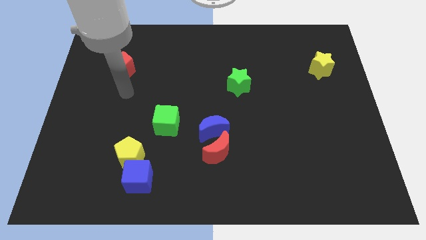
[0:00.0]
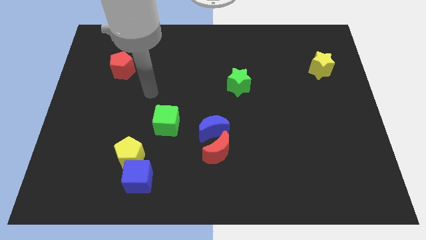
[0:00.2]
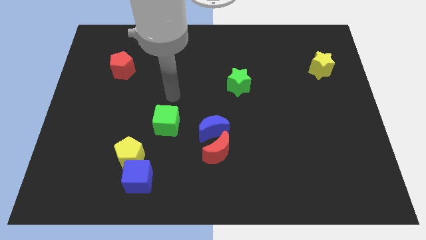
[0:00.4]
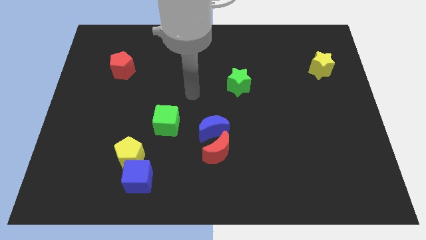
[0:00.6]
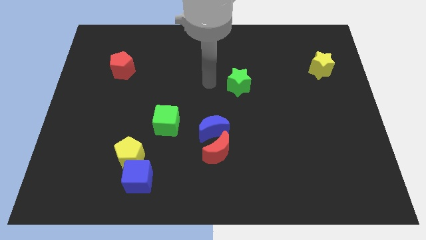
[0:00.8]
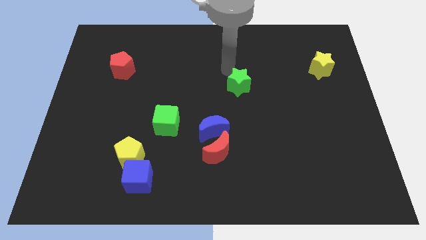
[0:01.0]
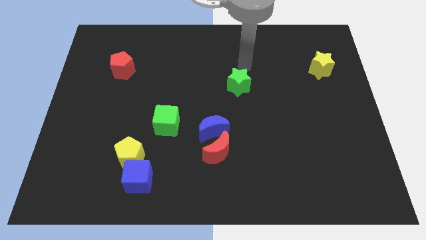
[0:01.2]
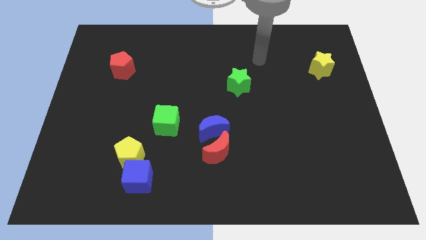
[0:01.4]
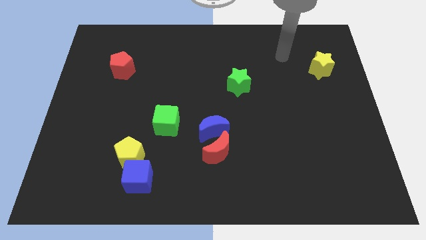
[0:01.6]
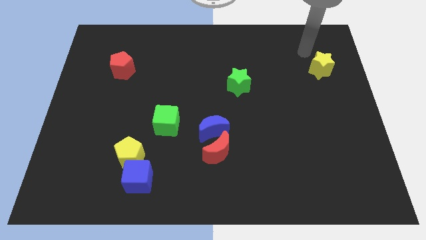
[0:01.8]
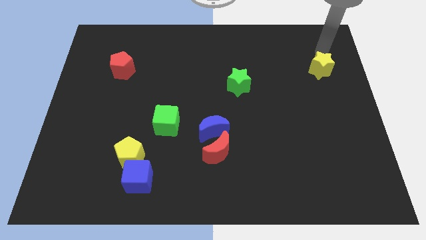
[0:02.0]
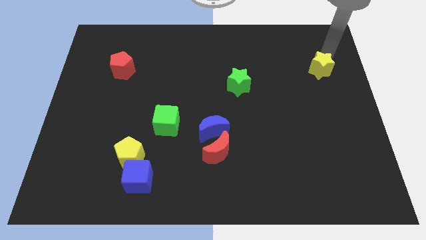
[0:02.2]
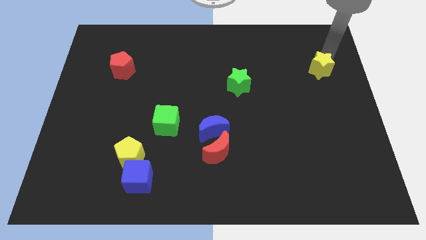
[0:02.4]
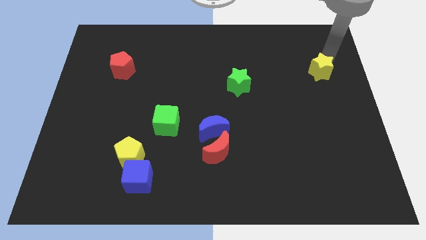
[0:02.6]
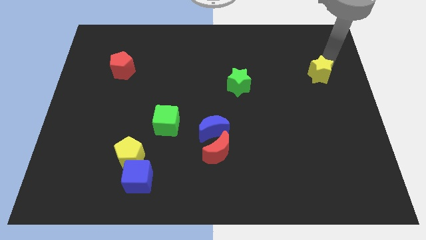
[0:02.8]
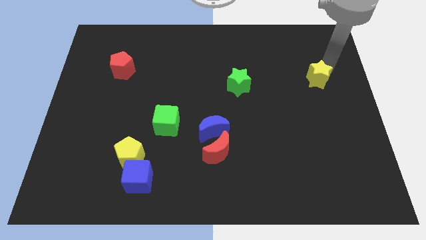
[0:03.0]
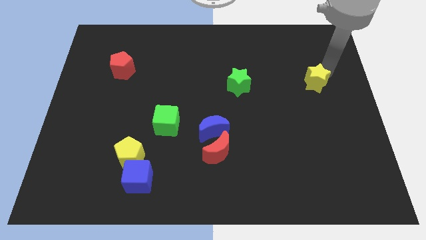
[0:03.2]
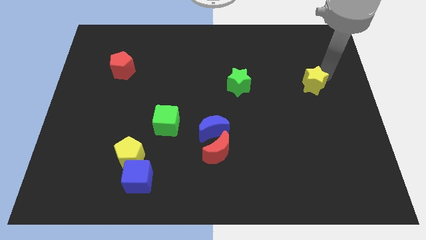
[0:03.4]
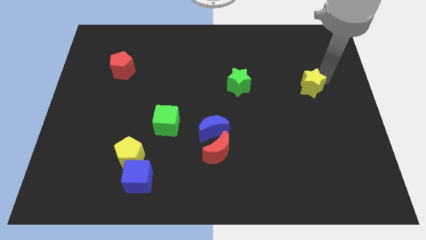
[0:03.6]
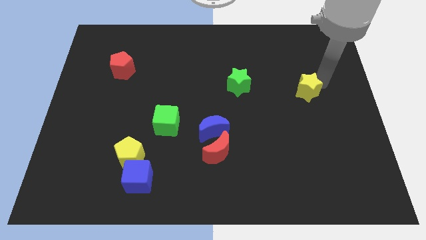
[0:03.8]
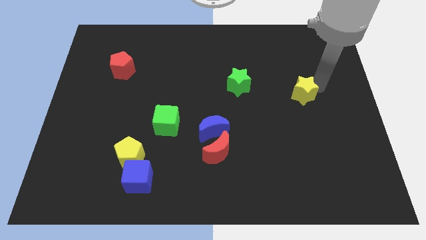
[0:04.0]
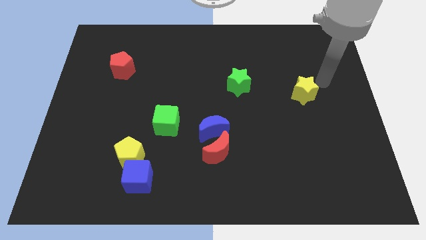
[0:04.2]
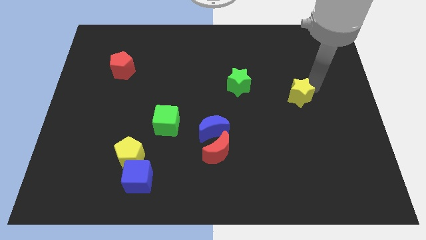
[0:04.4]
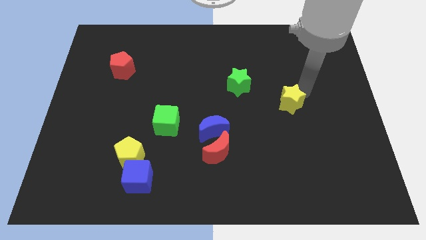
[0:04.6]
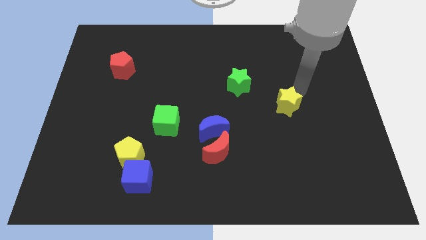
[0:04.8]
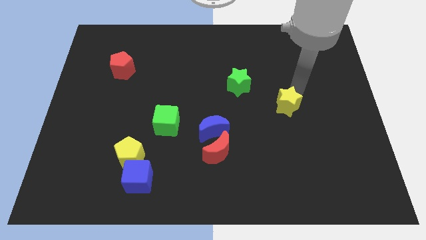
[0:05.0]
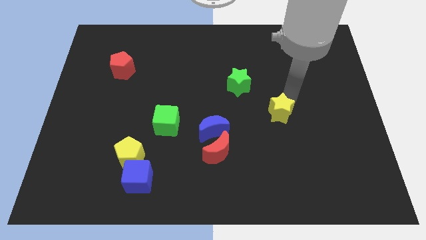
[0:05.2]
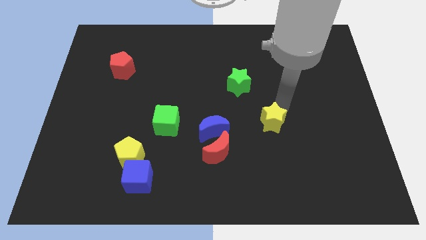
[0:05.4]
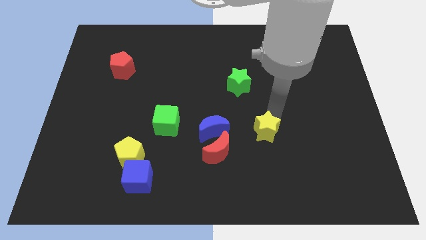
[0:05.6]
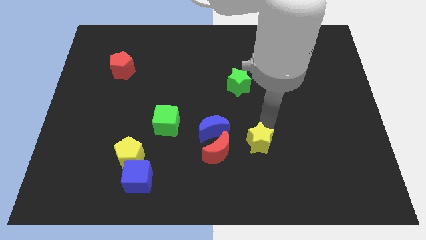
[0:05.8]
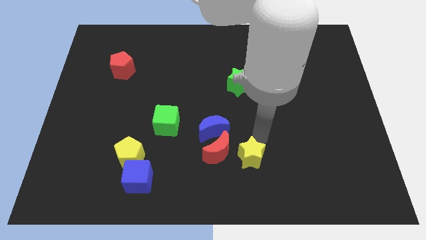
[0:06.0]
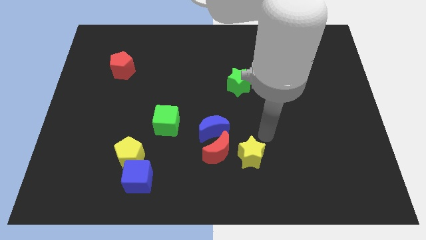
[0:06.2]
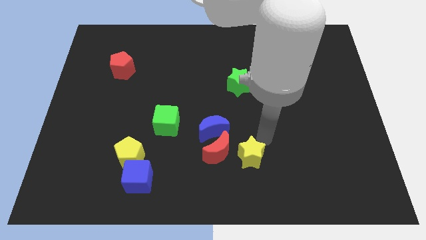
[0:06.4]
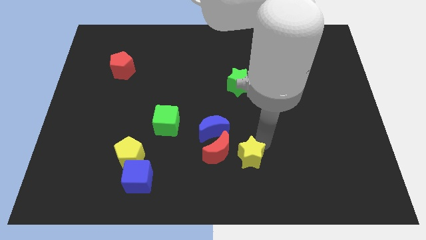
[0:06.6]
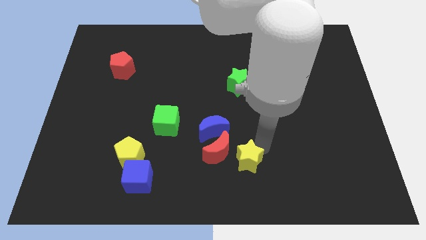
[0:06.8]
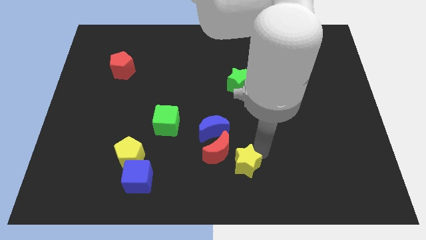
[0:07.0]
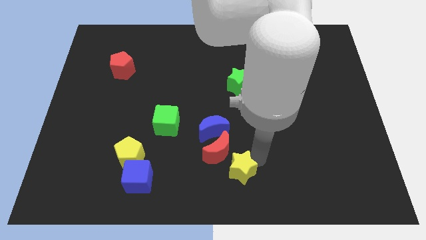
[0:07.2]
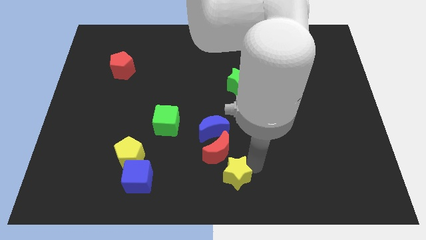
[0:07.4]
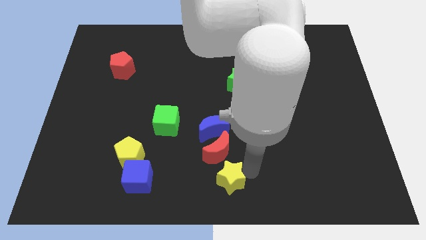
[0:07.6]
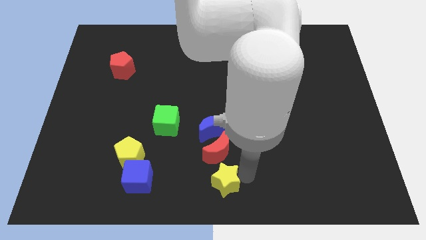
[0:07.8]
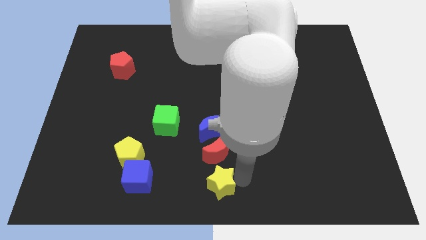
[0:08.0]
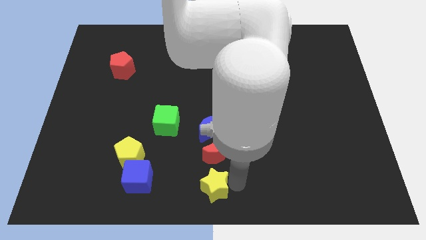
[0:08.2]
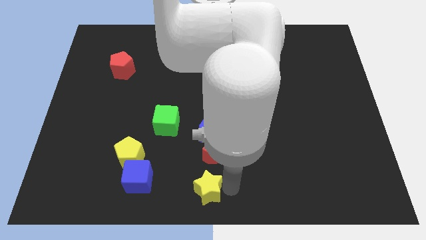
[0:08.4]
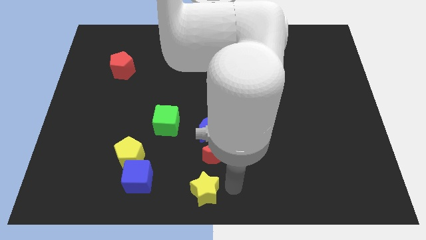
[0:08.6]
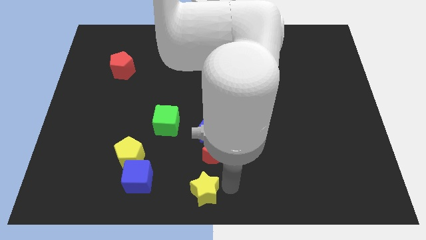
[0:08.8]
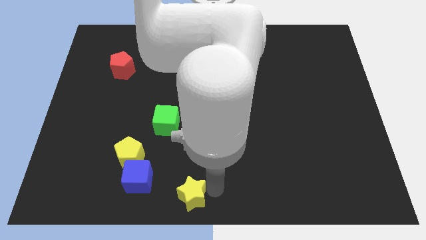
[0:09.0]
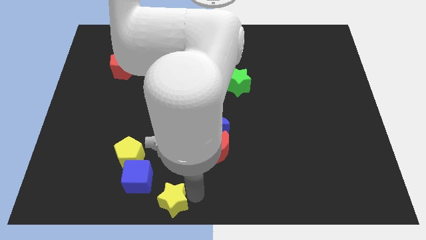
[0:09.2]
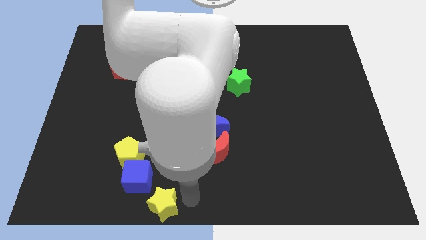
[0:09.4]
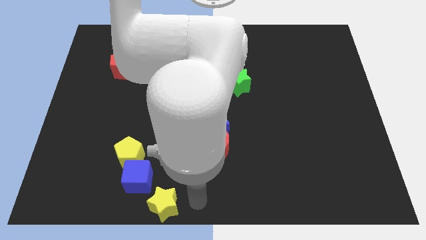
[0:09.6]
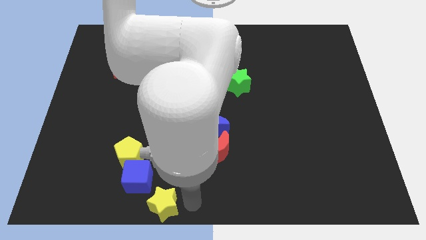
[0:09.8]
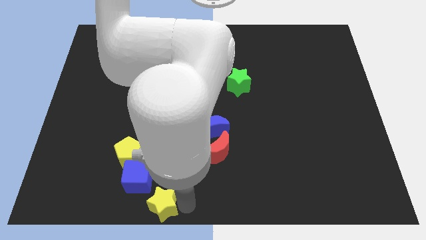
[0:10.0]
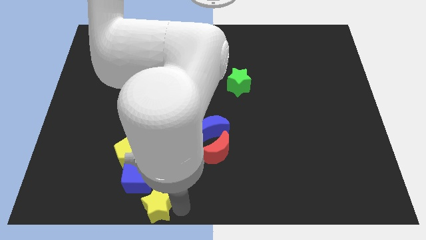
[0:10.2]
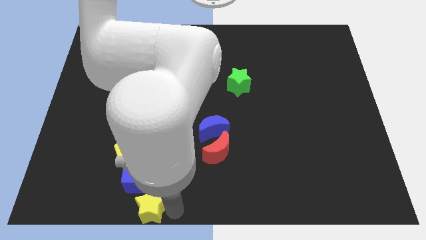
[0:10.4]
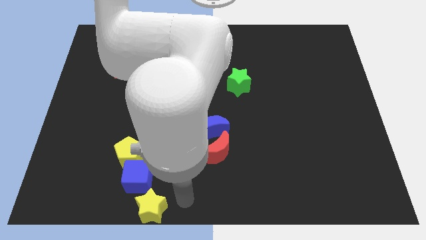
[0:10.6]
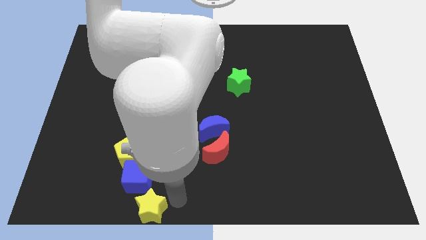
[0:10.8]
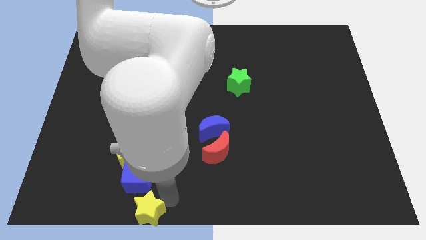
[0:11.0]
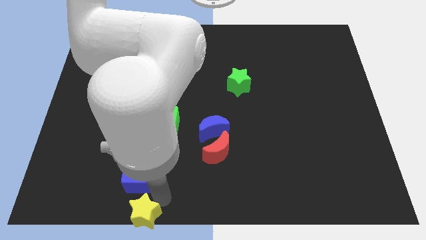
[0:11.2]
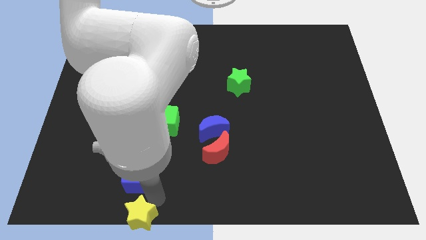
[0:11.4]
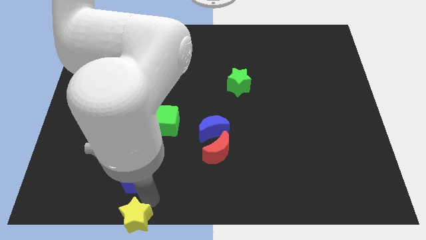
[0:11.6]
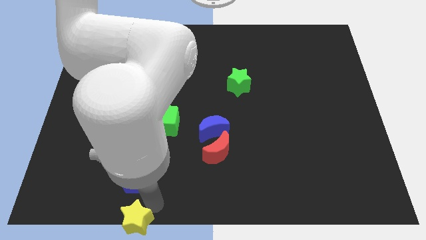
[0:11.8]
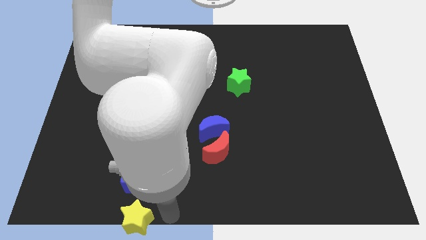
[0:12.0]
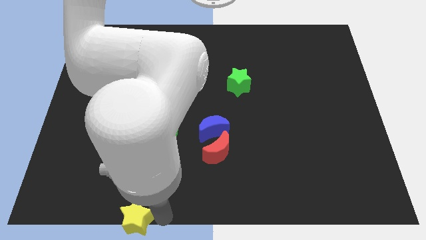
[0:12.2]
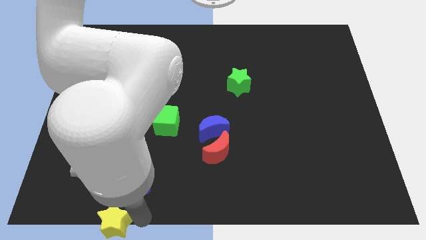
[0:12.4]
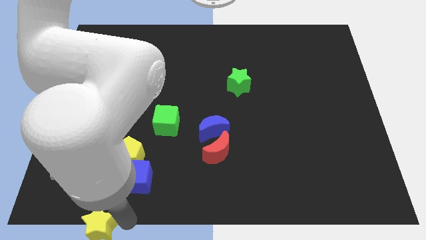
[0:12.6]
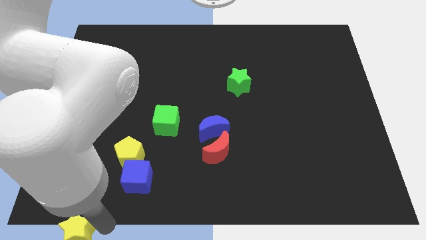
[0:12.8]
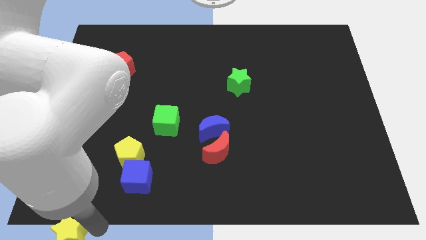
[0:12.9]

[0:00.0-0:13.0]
push the yellow star to the lower left corner
